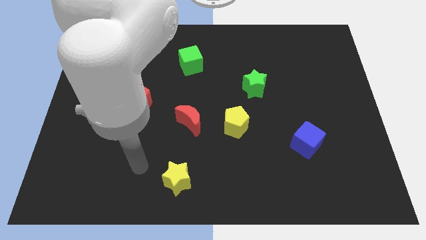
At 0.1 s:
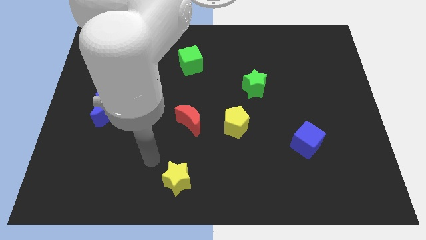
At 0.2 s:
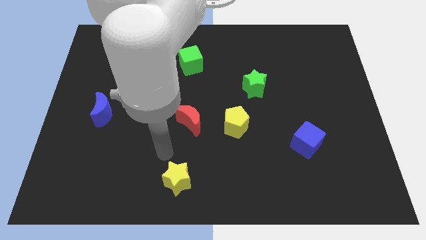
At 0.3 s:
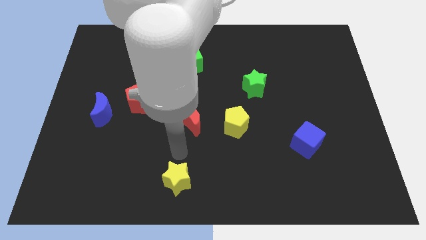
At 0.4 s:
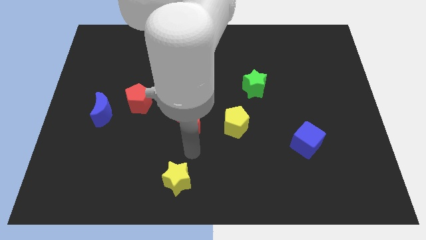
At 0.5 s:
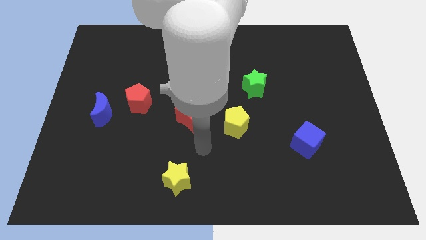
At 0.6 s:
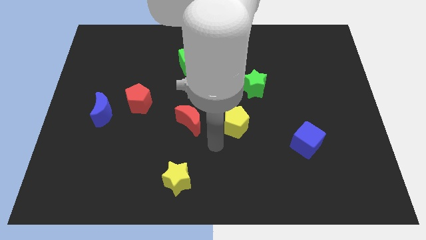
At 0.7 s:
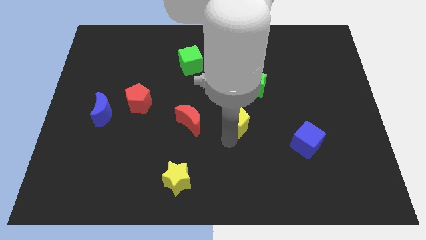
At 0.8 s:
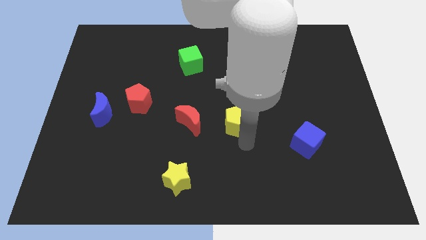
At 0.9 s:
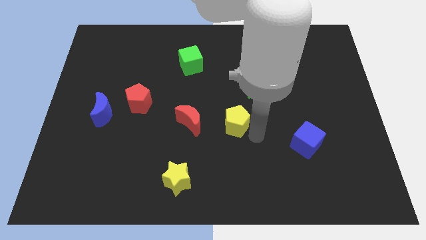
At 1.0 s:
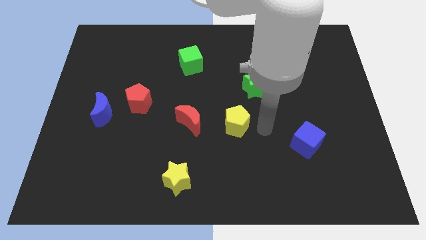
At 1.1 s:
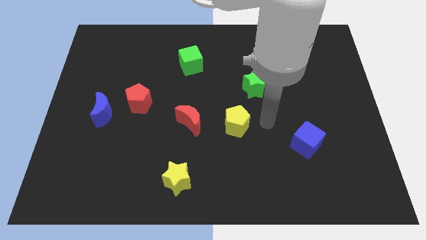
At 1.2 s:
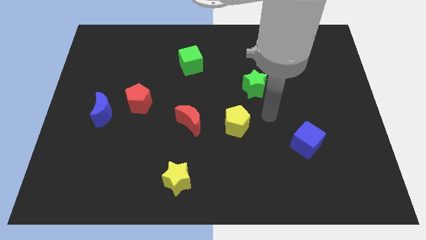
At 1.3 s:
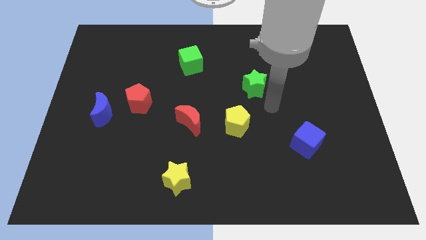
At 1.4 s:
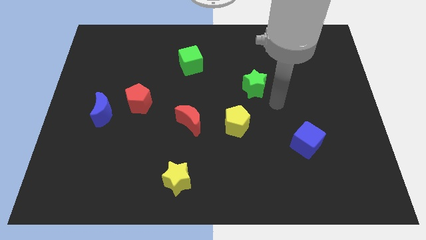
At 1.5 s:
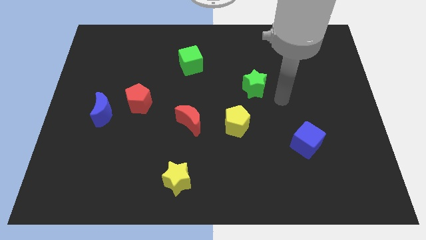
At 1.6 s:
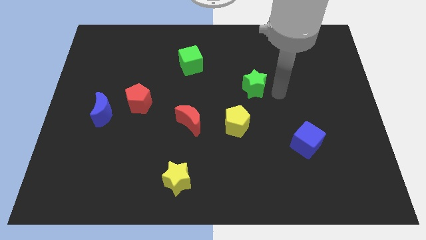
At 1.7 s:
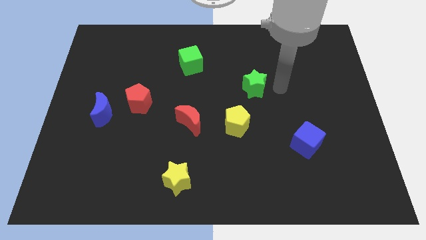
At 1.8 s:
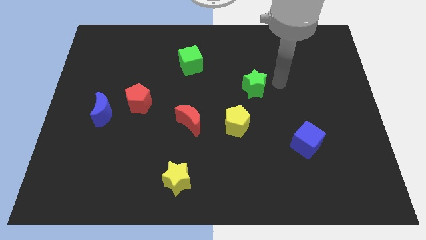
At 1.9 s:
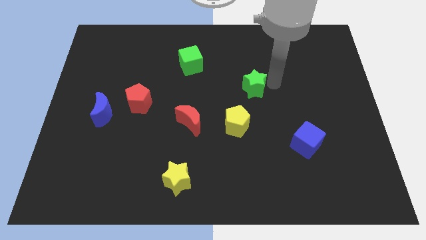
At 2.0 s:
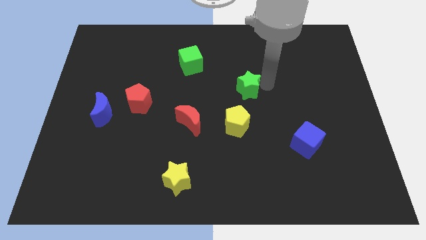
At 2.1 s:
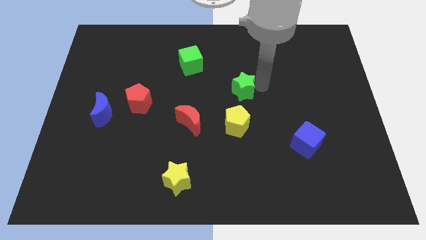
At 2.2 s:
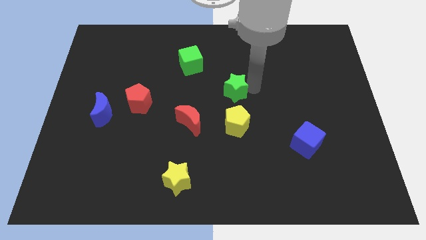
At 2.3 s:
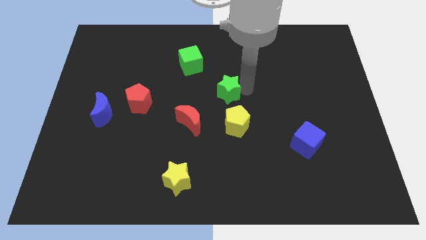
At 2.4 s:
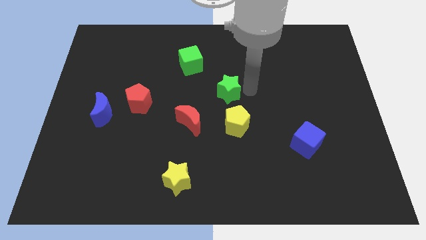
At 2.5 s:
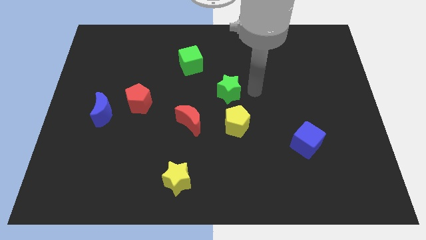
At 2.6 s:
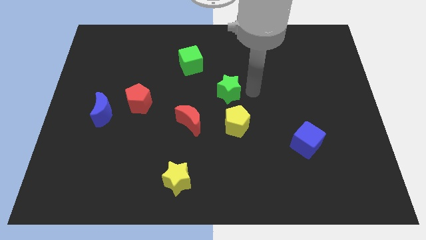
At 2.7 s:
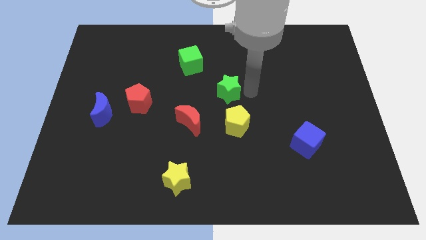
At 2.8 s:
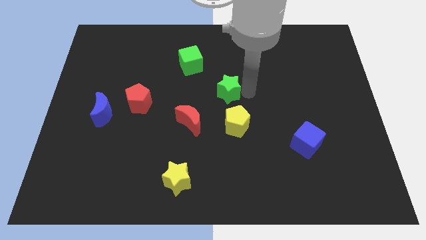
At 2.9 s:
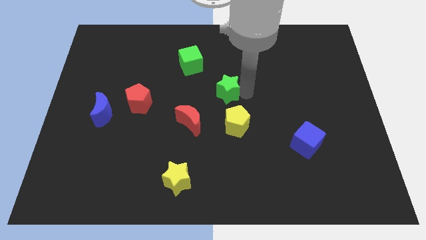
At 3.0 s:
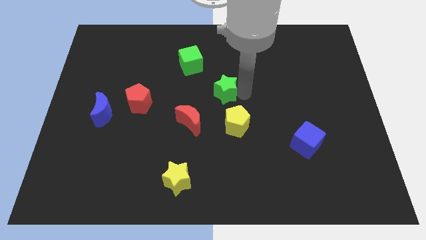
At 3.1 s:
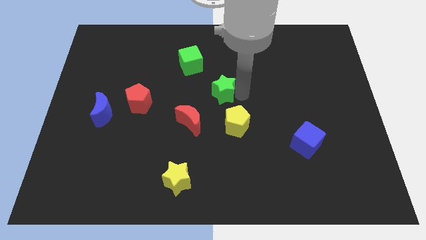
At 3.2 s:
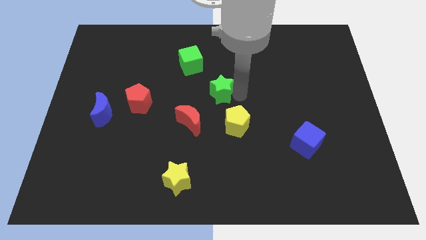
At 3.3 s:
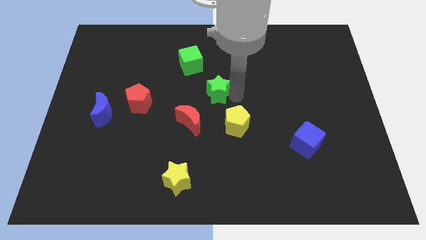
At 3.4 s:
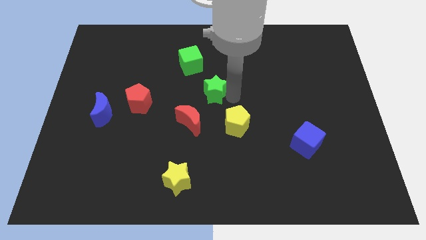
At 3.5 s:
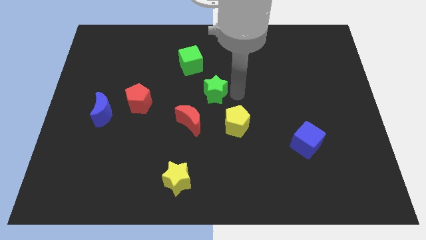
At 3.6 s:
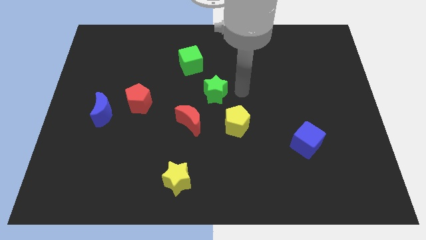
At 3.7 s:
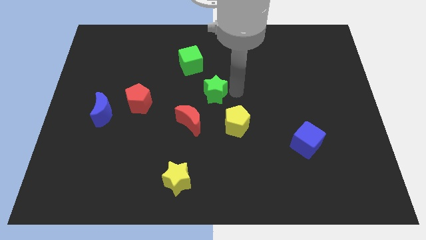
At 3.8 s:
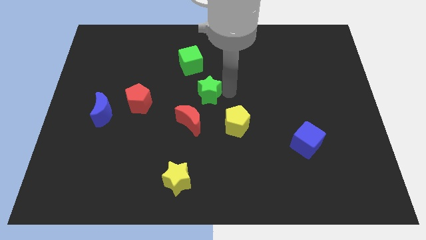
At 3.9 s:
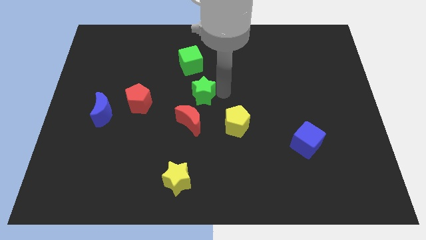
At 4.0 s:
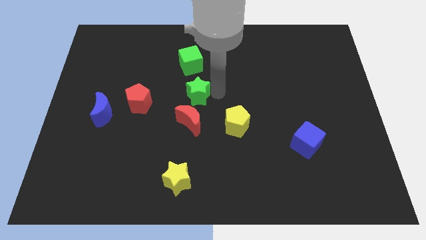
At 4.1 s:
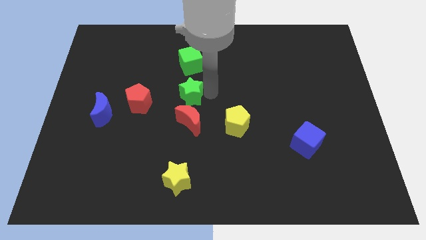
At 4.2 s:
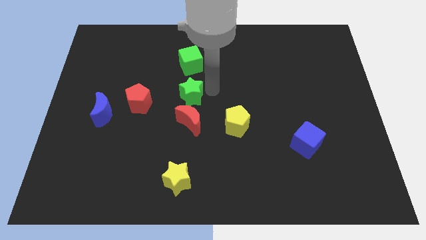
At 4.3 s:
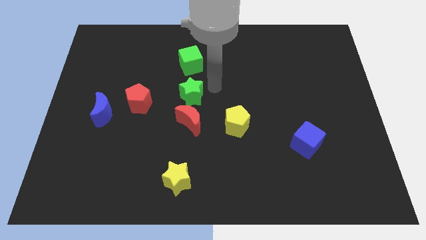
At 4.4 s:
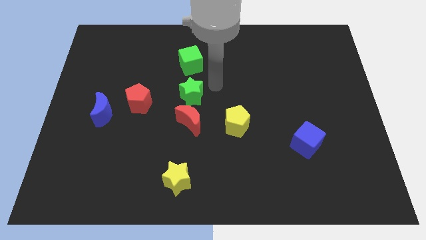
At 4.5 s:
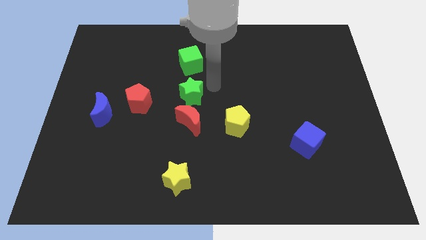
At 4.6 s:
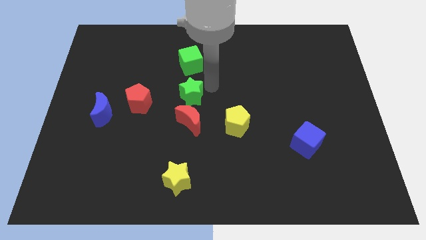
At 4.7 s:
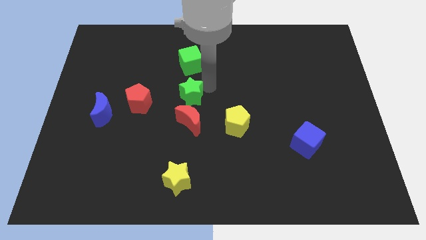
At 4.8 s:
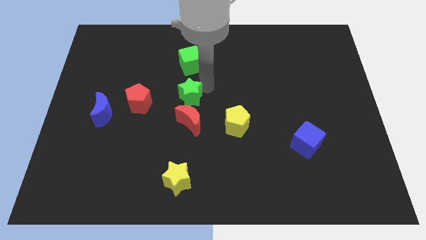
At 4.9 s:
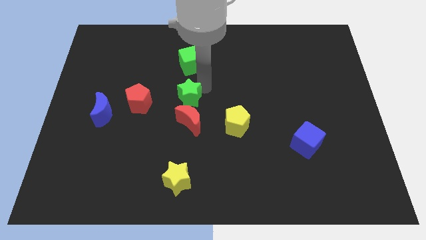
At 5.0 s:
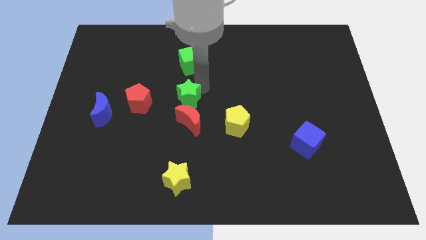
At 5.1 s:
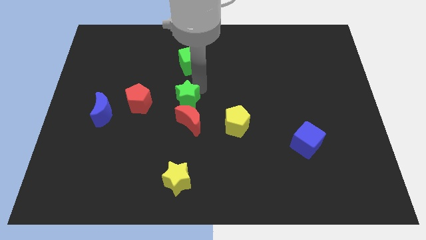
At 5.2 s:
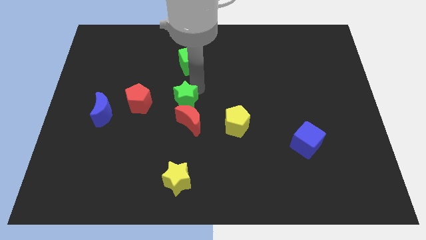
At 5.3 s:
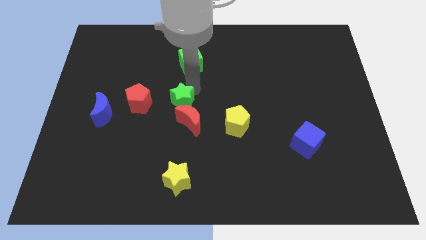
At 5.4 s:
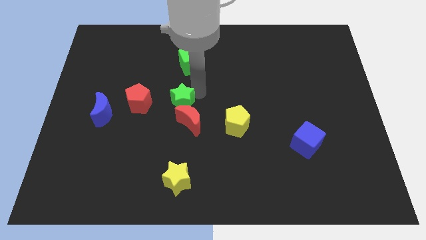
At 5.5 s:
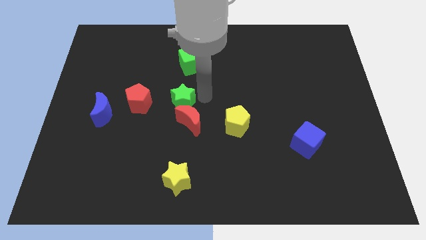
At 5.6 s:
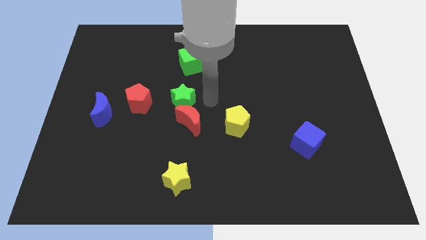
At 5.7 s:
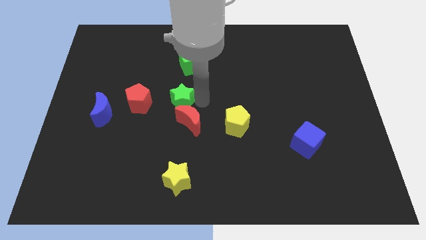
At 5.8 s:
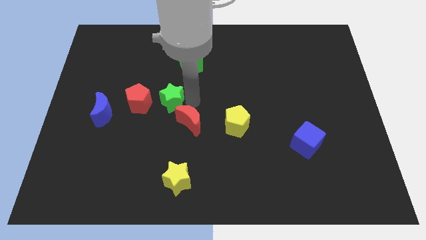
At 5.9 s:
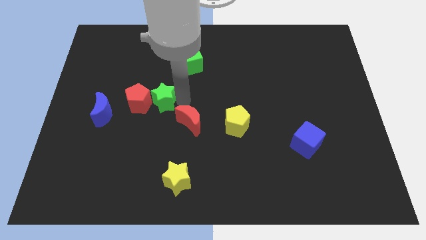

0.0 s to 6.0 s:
move the green star next to the red pentagon

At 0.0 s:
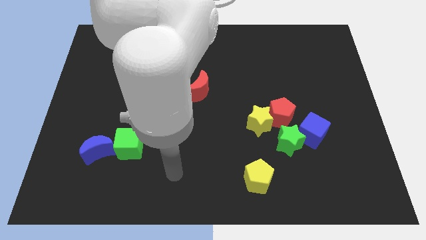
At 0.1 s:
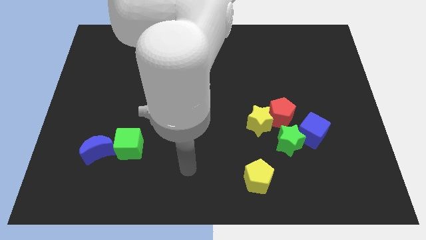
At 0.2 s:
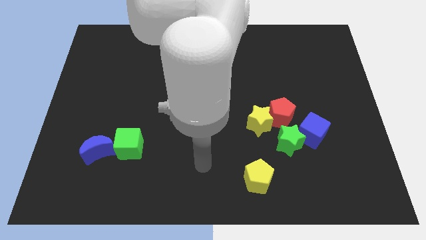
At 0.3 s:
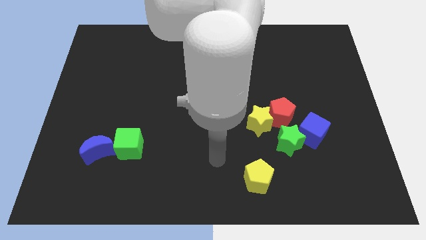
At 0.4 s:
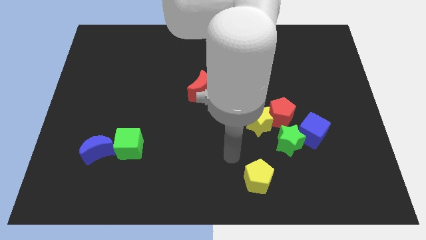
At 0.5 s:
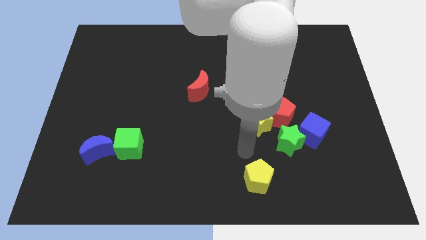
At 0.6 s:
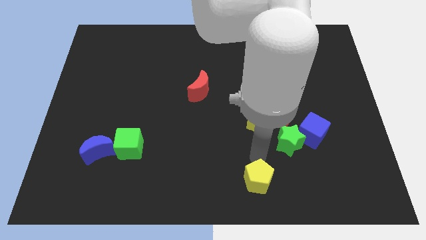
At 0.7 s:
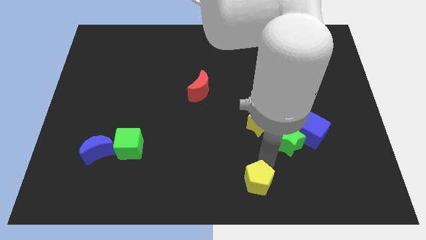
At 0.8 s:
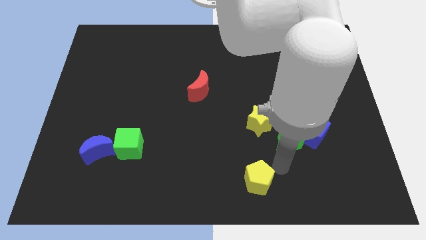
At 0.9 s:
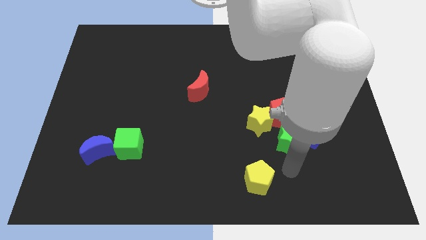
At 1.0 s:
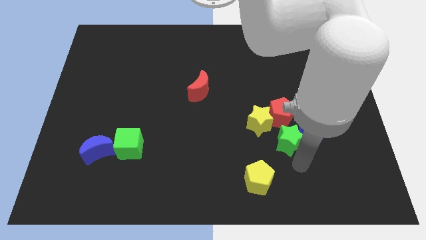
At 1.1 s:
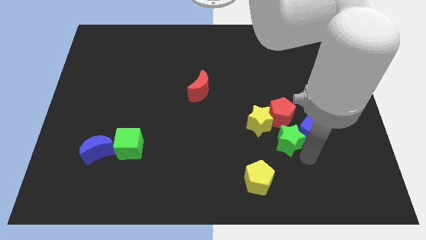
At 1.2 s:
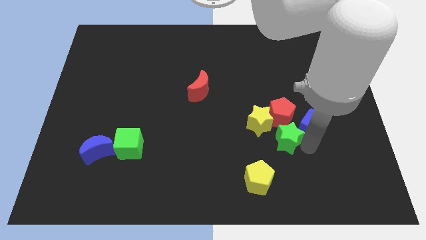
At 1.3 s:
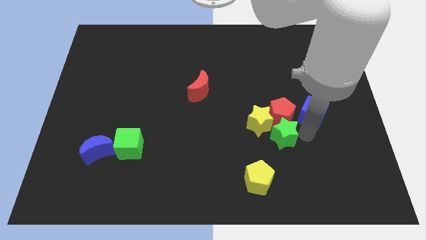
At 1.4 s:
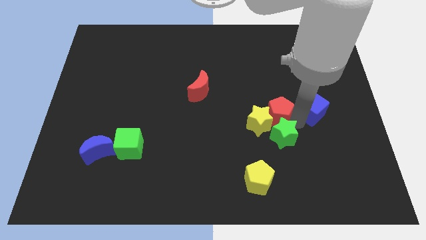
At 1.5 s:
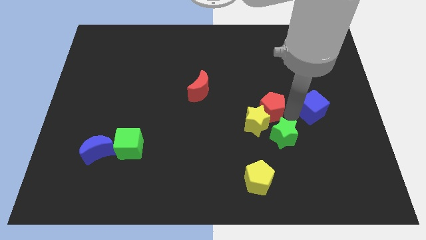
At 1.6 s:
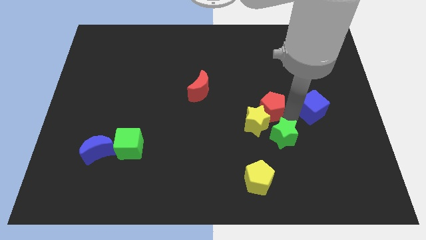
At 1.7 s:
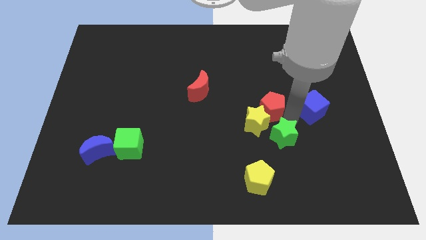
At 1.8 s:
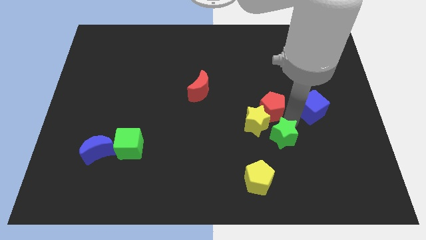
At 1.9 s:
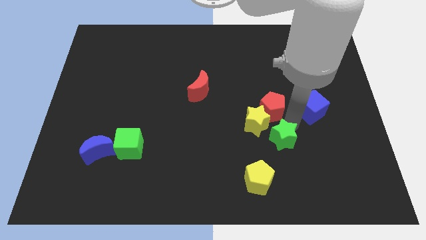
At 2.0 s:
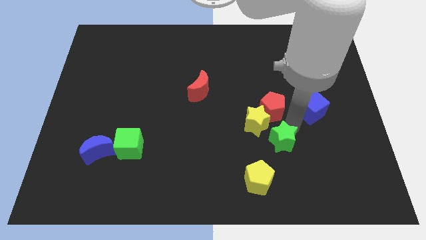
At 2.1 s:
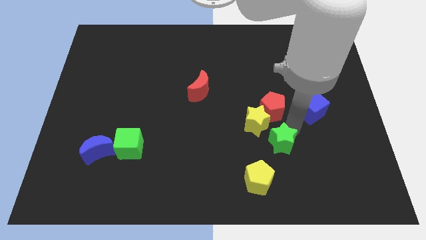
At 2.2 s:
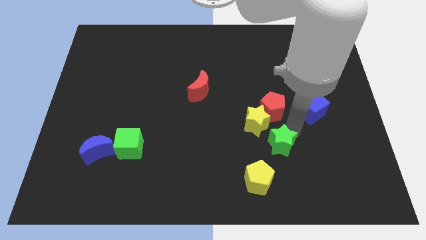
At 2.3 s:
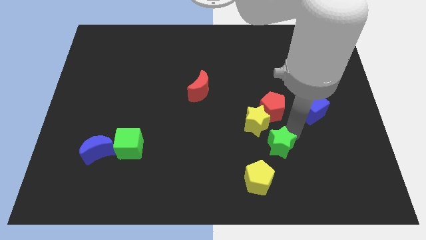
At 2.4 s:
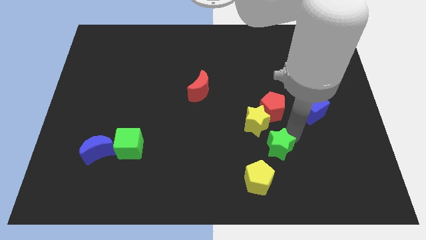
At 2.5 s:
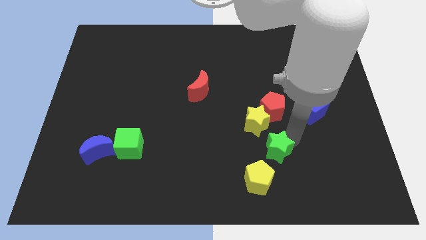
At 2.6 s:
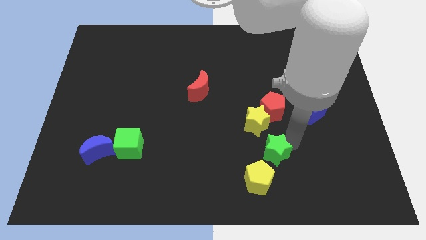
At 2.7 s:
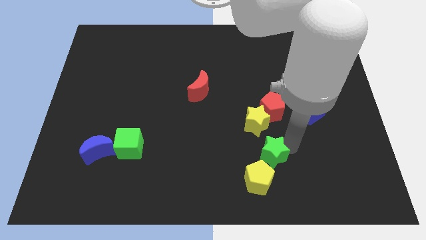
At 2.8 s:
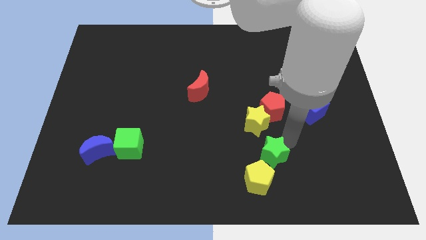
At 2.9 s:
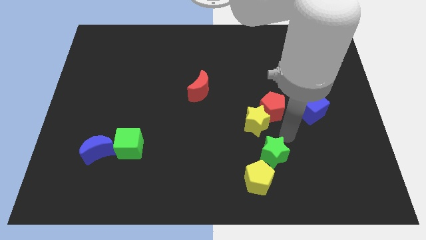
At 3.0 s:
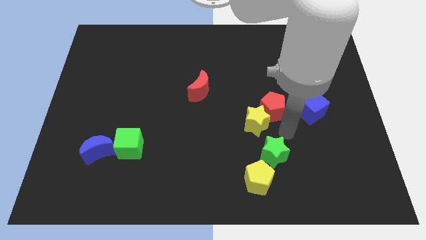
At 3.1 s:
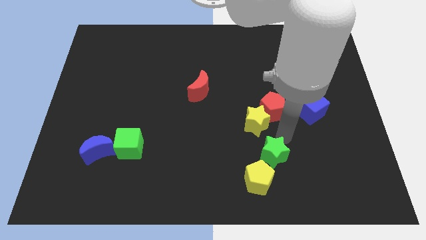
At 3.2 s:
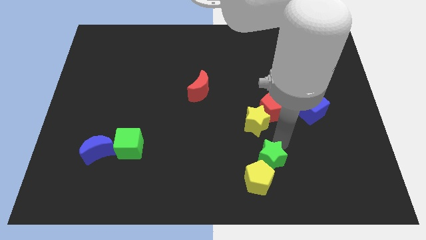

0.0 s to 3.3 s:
move the green star close to the yellow pentagon
